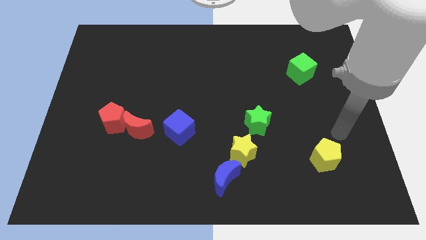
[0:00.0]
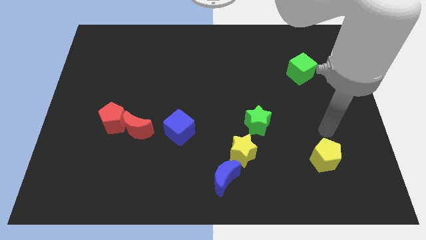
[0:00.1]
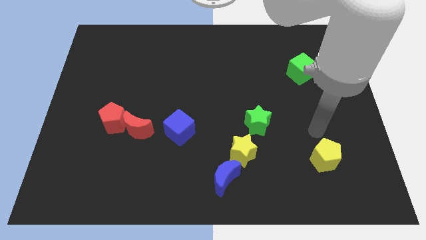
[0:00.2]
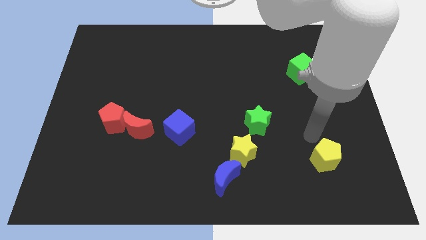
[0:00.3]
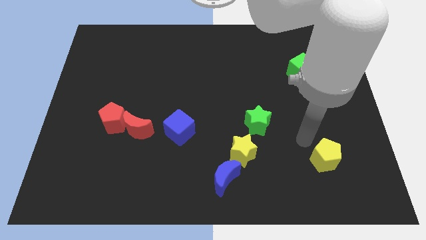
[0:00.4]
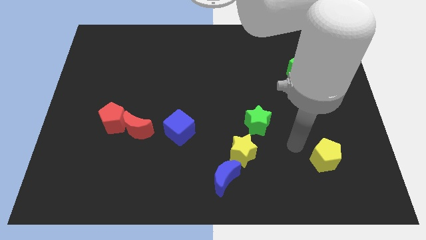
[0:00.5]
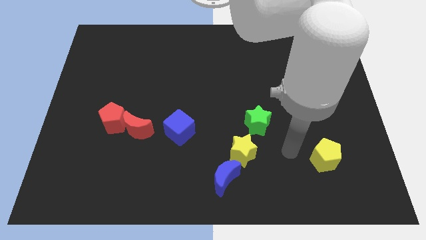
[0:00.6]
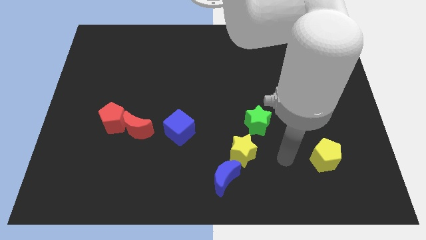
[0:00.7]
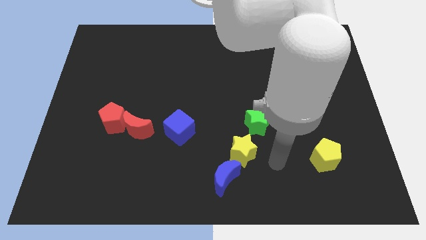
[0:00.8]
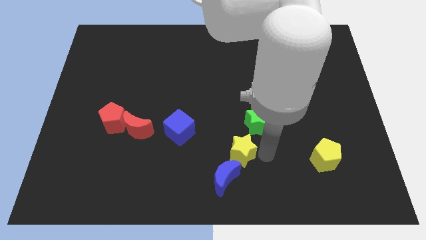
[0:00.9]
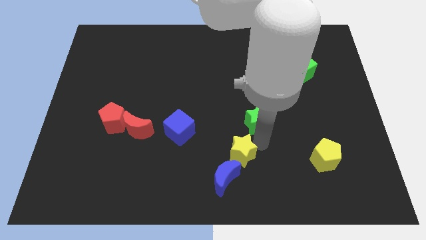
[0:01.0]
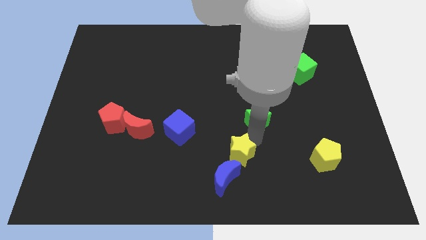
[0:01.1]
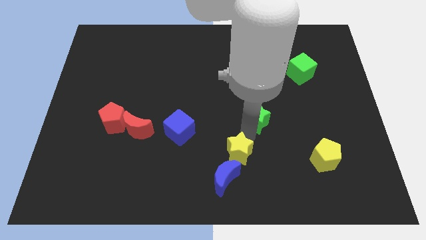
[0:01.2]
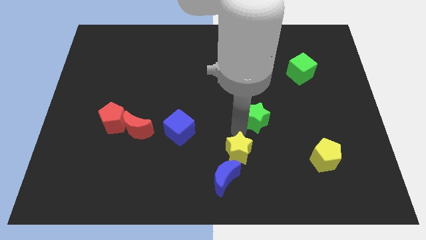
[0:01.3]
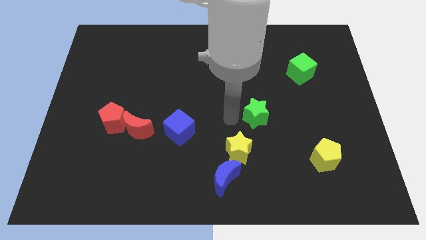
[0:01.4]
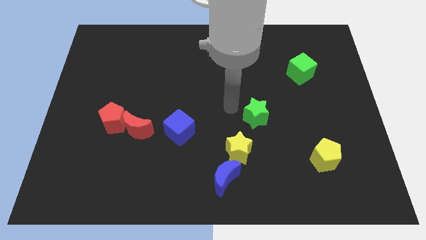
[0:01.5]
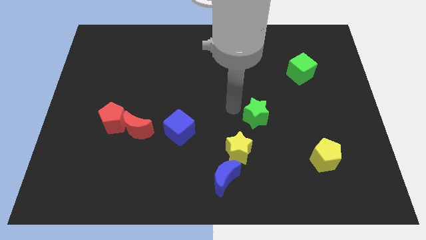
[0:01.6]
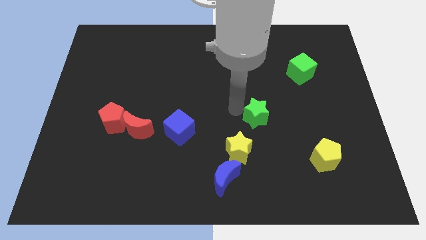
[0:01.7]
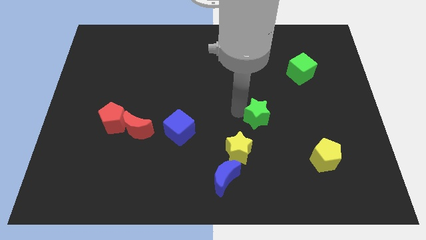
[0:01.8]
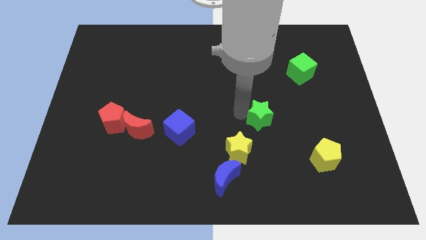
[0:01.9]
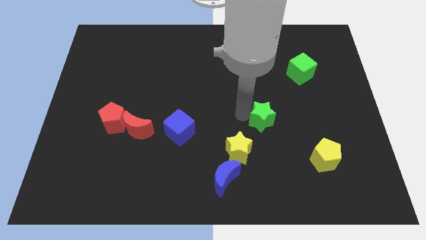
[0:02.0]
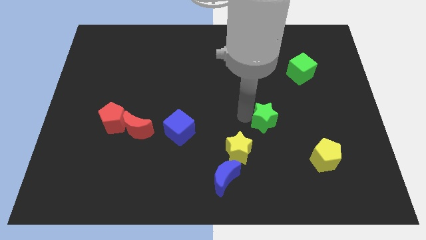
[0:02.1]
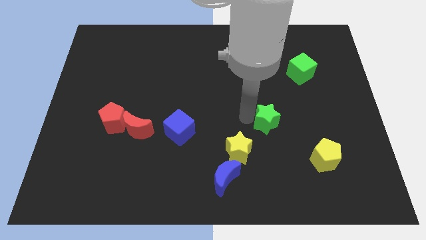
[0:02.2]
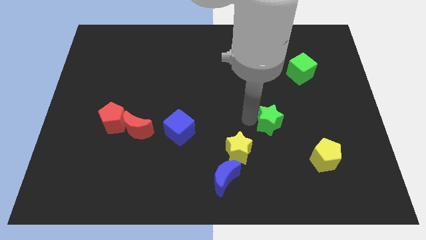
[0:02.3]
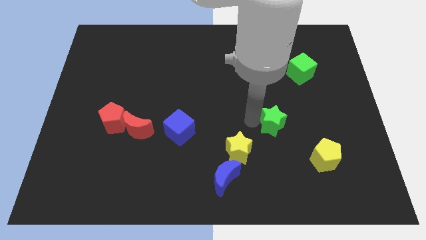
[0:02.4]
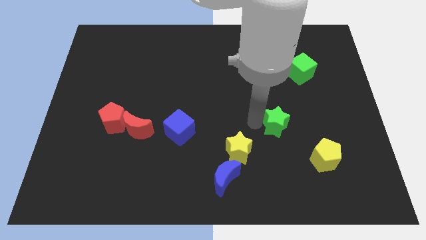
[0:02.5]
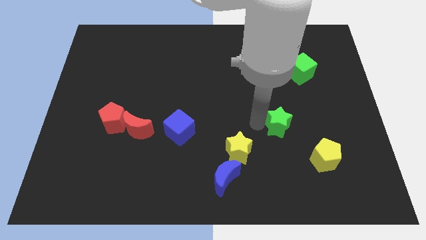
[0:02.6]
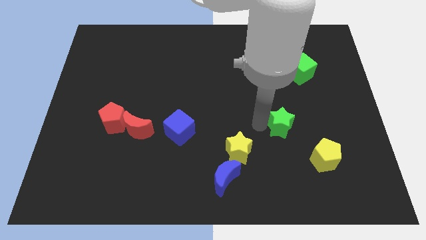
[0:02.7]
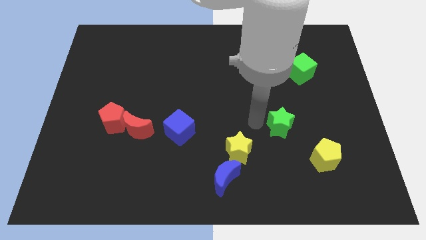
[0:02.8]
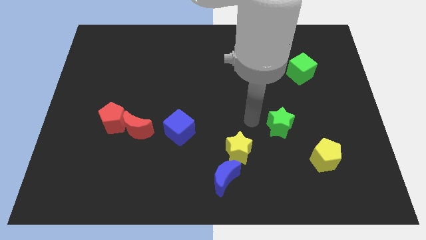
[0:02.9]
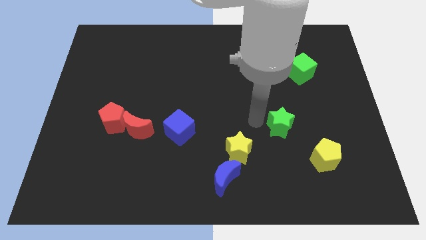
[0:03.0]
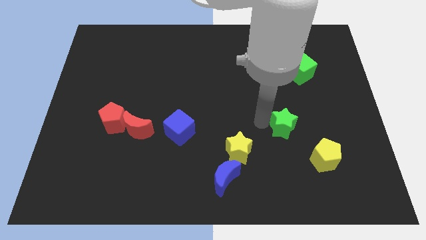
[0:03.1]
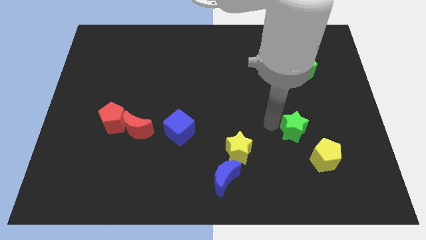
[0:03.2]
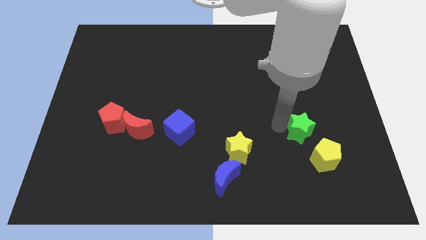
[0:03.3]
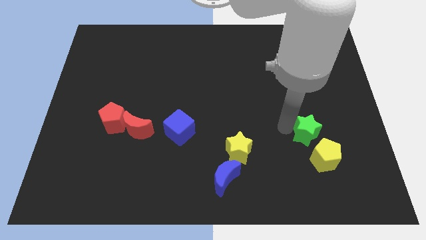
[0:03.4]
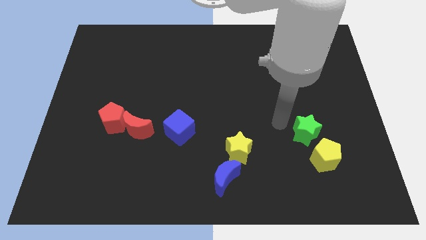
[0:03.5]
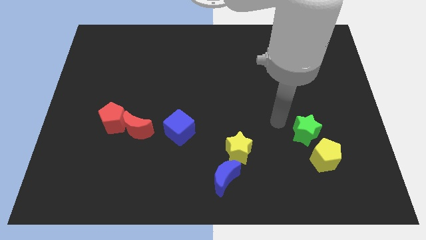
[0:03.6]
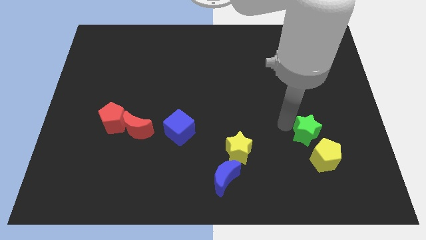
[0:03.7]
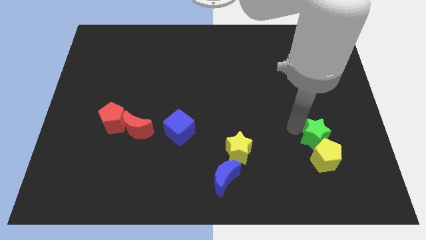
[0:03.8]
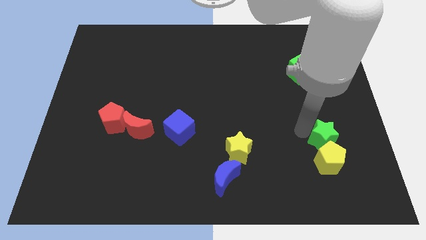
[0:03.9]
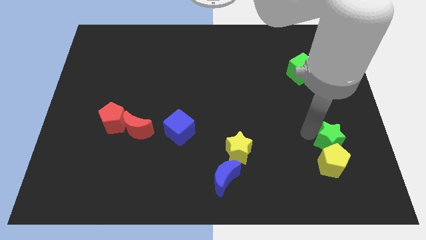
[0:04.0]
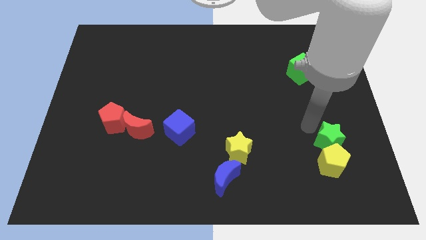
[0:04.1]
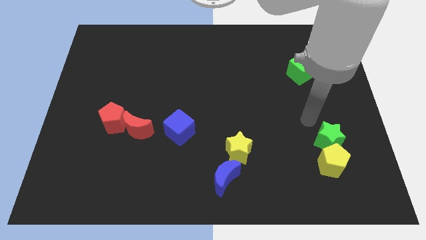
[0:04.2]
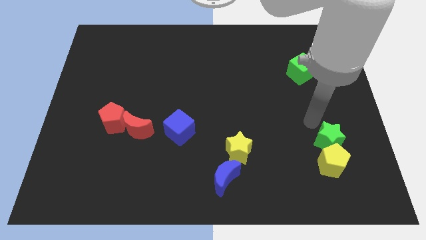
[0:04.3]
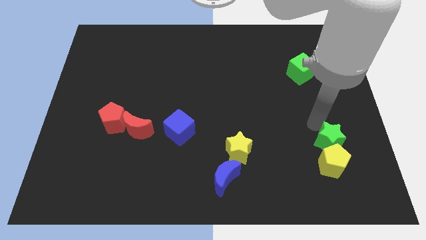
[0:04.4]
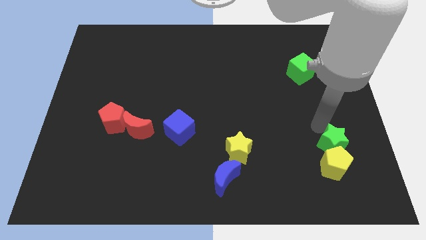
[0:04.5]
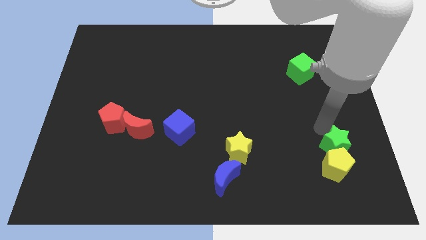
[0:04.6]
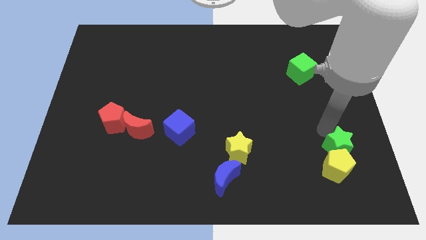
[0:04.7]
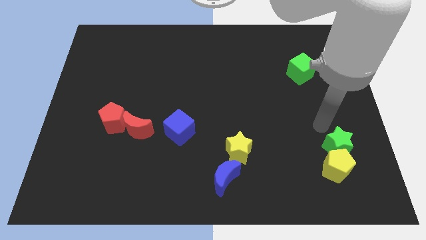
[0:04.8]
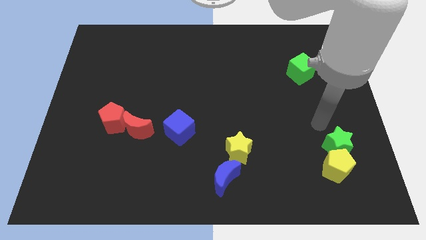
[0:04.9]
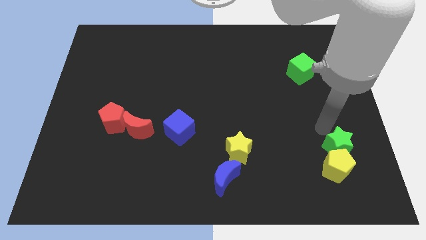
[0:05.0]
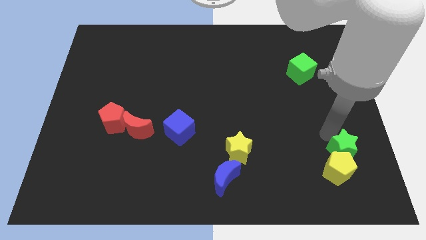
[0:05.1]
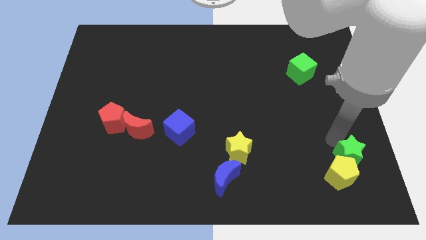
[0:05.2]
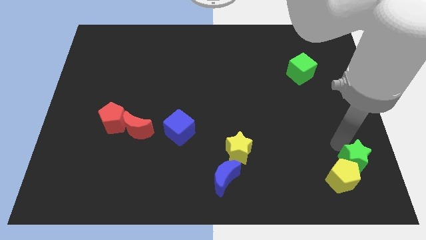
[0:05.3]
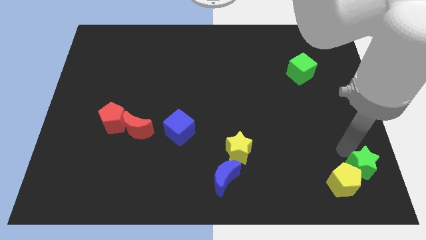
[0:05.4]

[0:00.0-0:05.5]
put the green star to the bottom right of the board

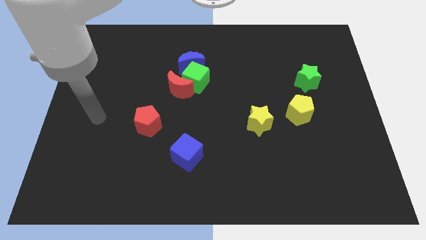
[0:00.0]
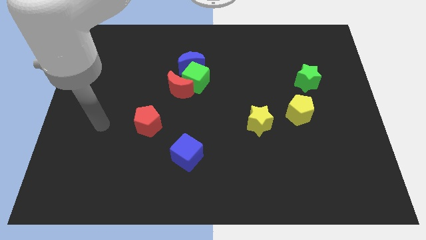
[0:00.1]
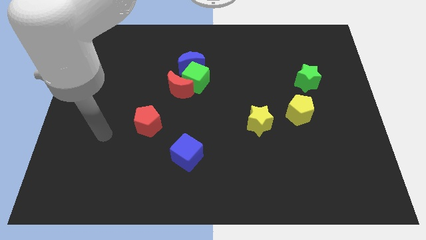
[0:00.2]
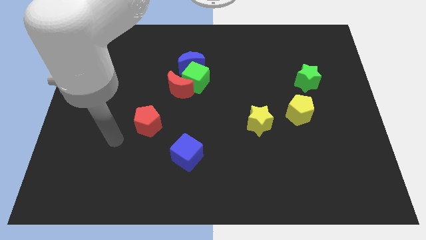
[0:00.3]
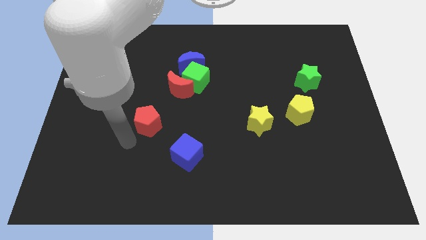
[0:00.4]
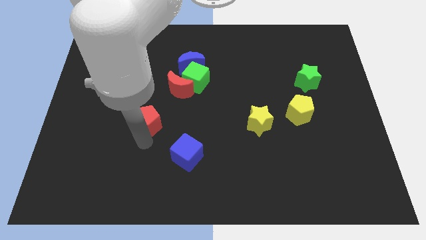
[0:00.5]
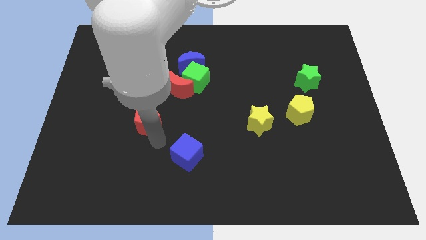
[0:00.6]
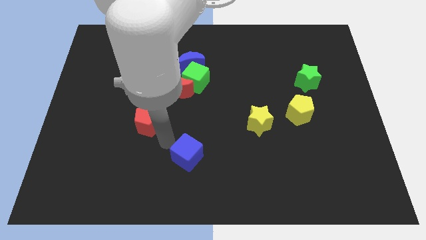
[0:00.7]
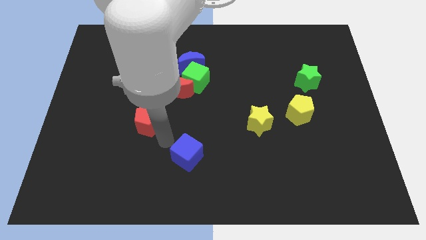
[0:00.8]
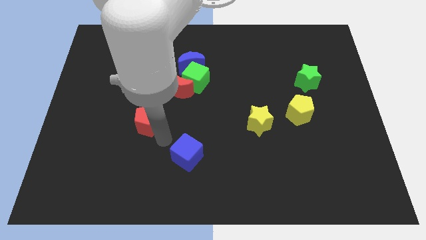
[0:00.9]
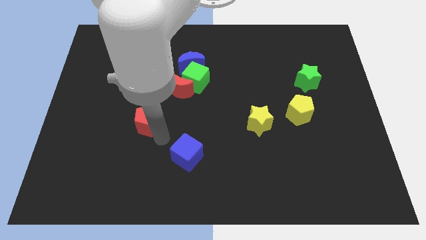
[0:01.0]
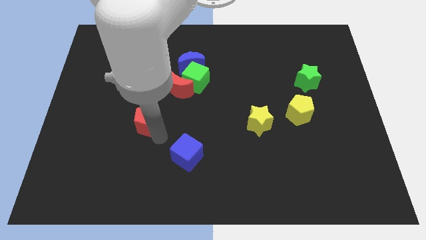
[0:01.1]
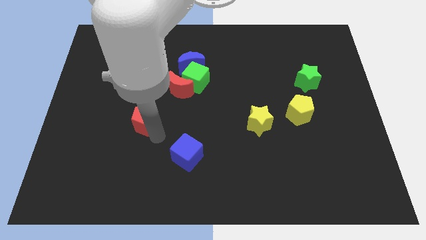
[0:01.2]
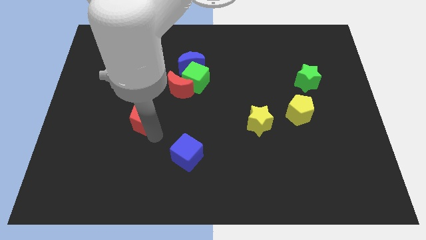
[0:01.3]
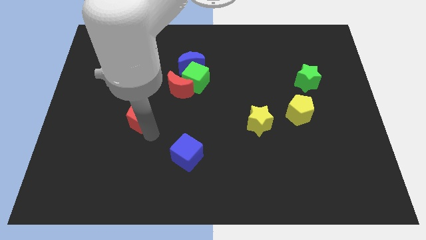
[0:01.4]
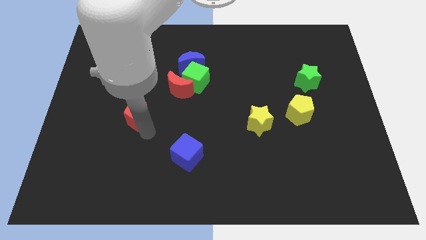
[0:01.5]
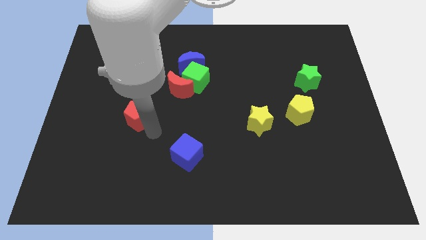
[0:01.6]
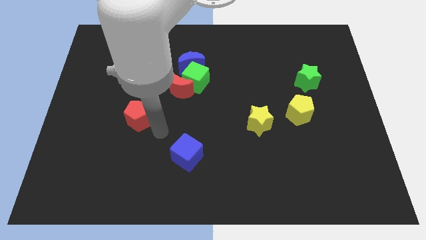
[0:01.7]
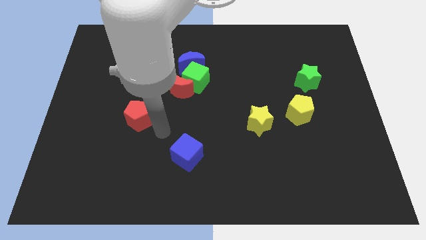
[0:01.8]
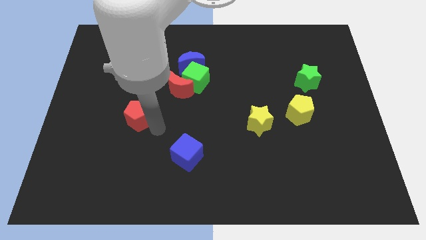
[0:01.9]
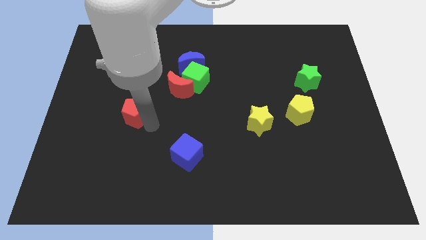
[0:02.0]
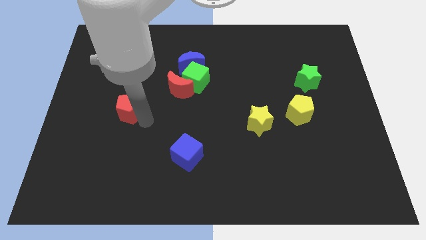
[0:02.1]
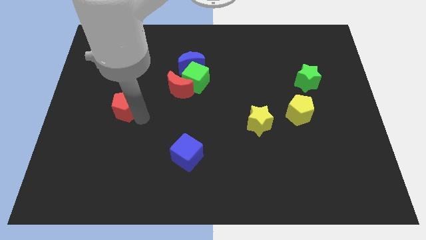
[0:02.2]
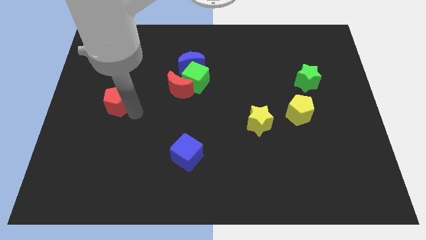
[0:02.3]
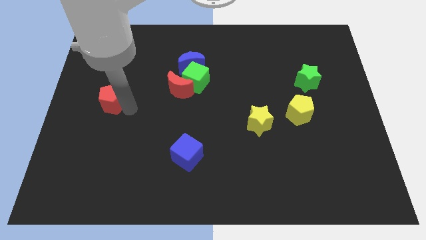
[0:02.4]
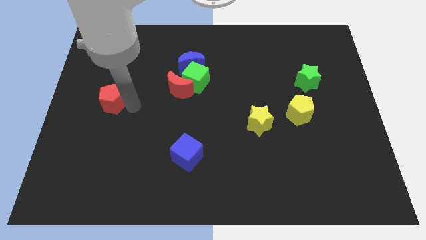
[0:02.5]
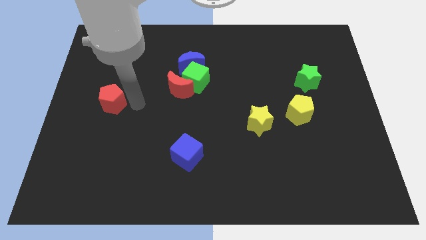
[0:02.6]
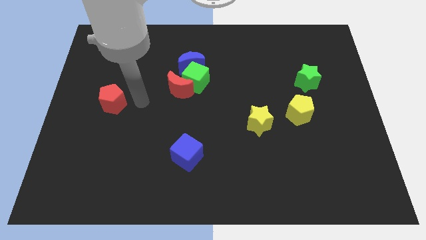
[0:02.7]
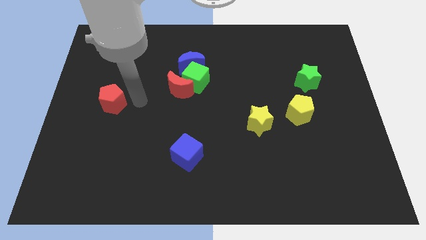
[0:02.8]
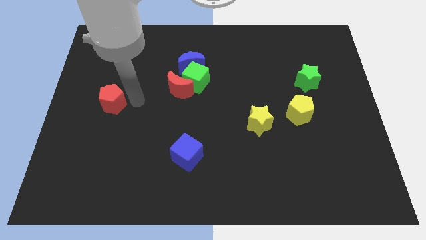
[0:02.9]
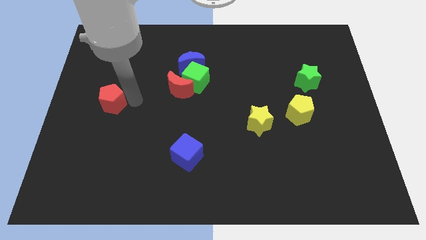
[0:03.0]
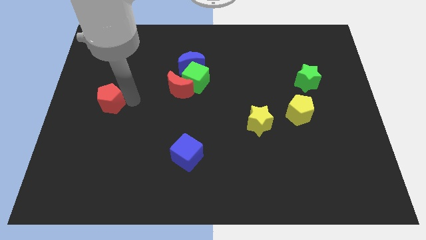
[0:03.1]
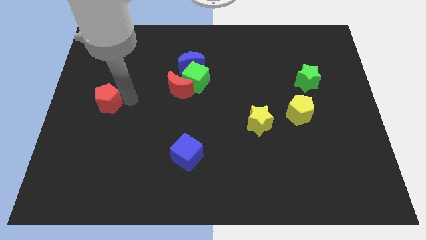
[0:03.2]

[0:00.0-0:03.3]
move the red pentagon to the left side
